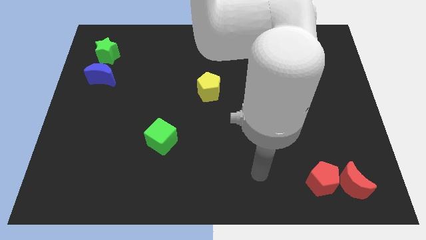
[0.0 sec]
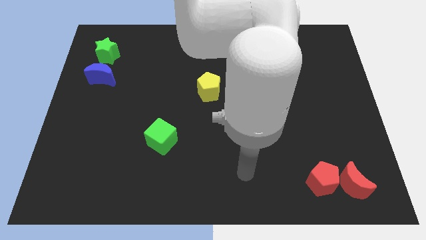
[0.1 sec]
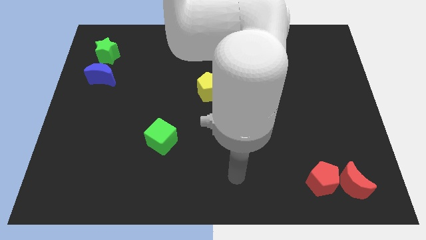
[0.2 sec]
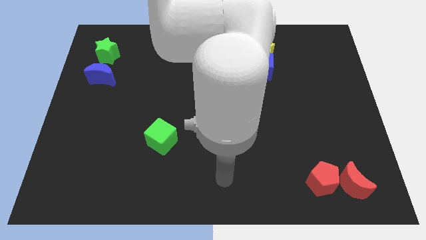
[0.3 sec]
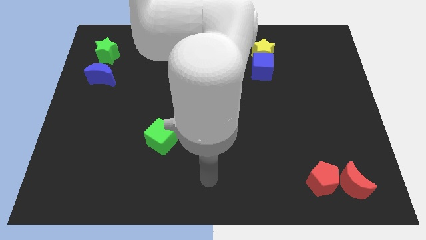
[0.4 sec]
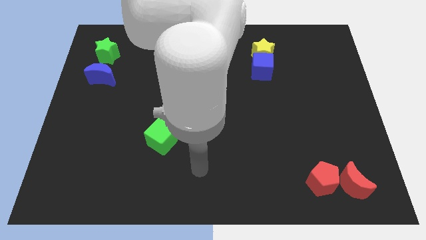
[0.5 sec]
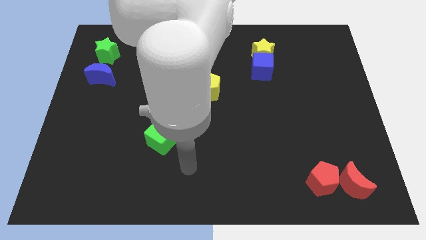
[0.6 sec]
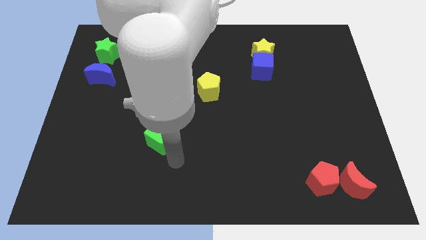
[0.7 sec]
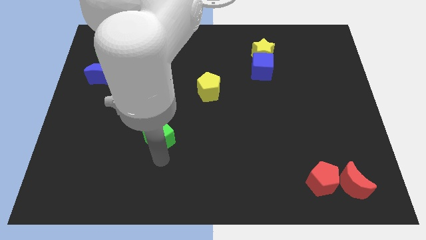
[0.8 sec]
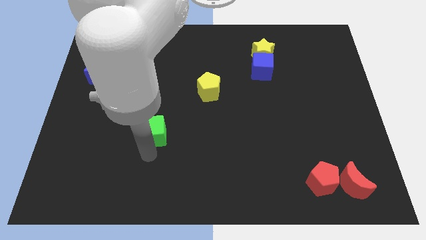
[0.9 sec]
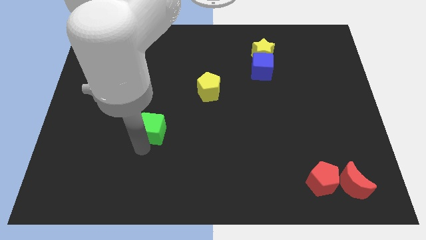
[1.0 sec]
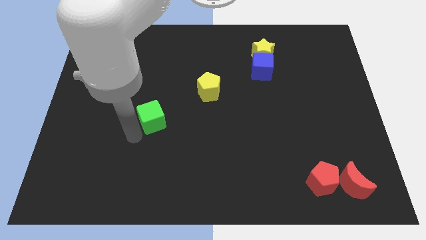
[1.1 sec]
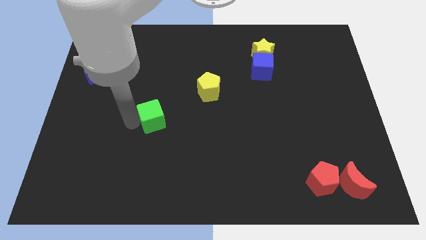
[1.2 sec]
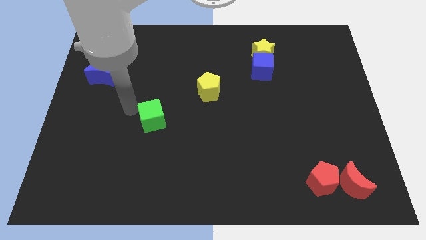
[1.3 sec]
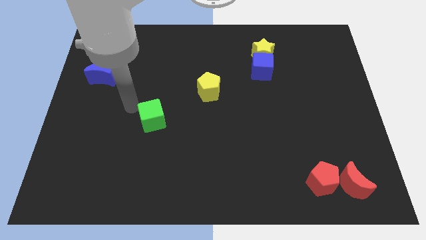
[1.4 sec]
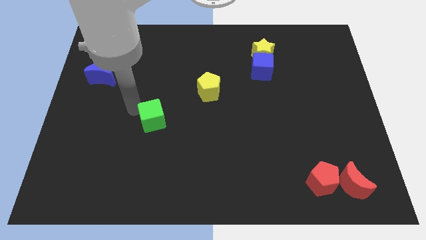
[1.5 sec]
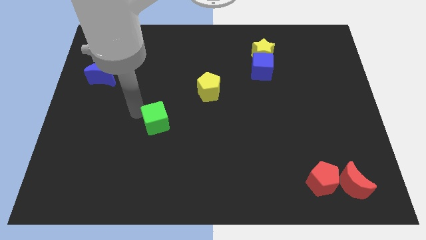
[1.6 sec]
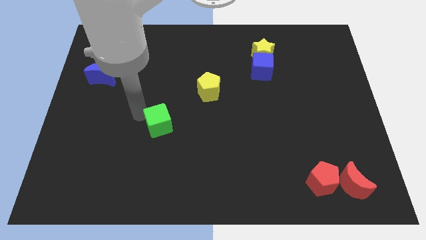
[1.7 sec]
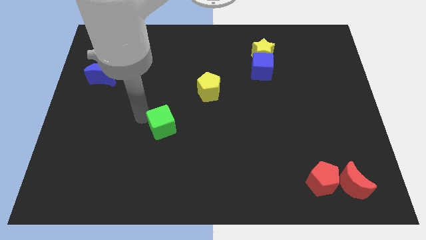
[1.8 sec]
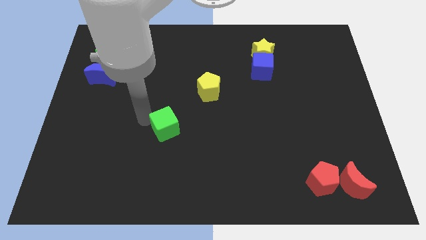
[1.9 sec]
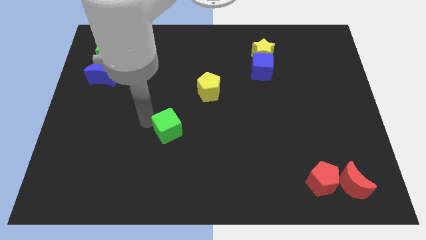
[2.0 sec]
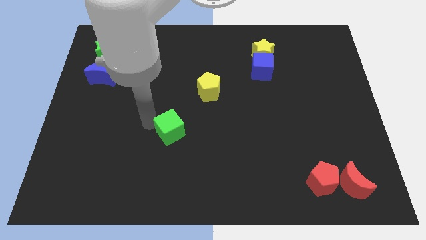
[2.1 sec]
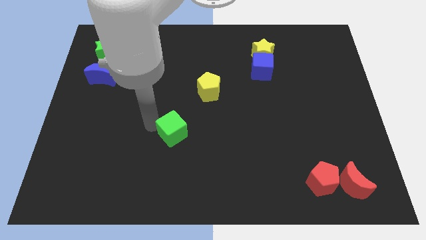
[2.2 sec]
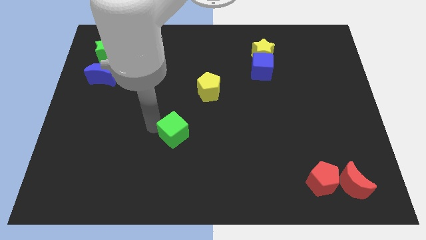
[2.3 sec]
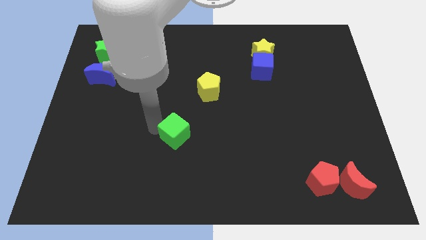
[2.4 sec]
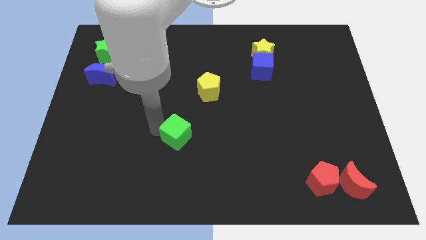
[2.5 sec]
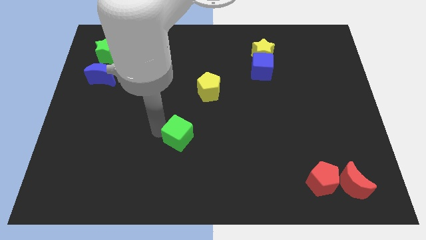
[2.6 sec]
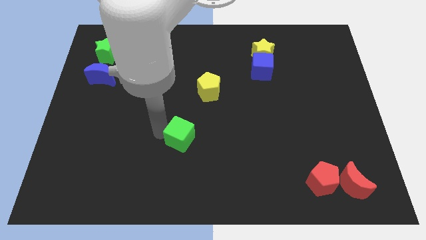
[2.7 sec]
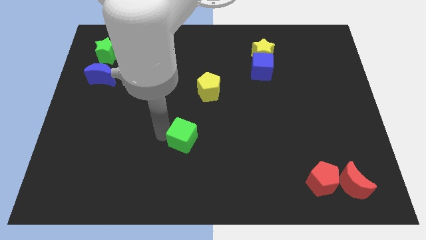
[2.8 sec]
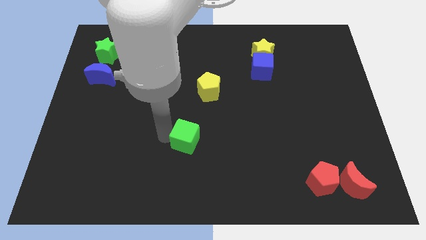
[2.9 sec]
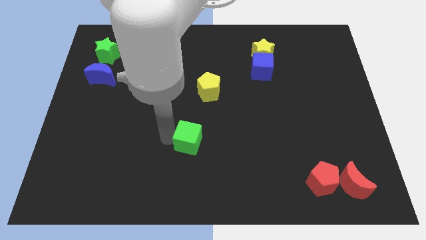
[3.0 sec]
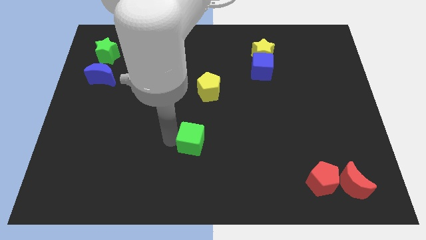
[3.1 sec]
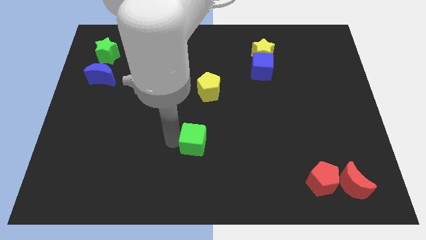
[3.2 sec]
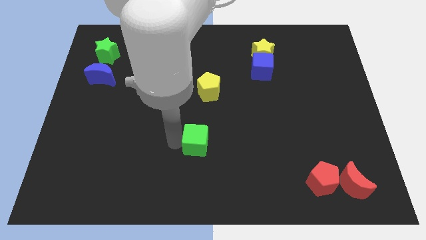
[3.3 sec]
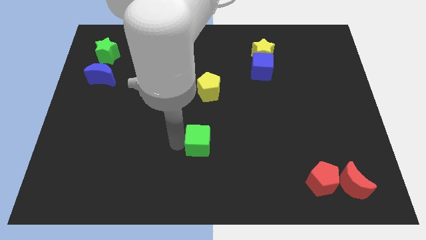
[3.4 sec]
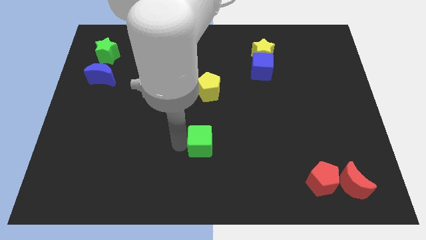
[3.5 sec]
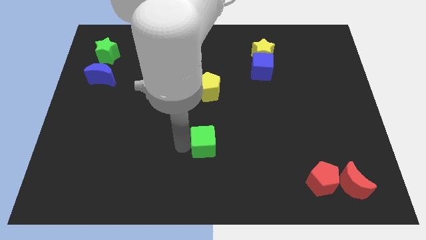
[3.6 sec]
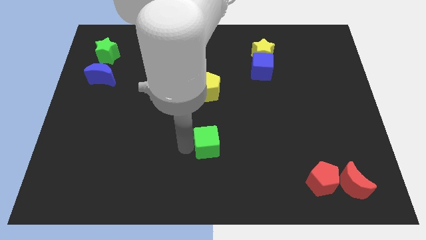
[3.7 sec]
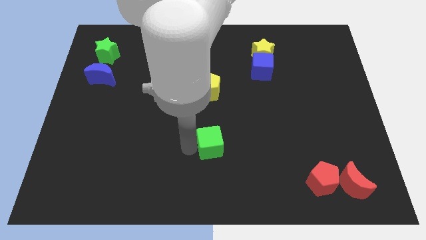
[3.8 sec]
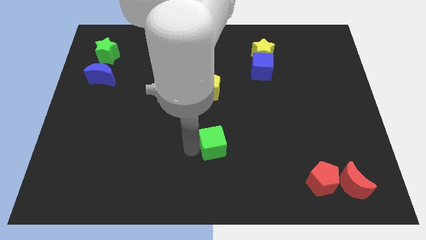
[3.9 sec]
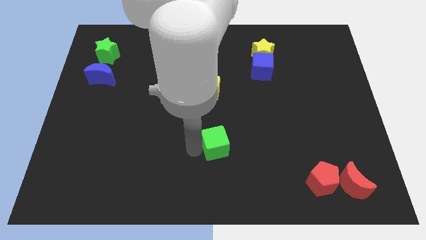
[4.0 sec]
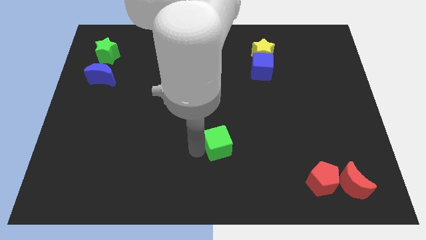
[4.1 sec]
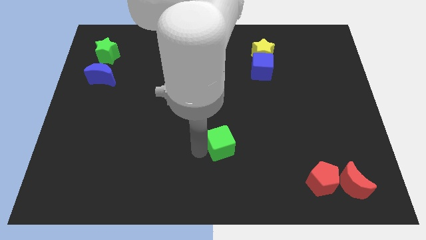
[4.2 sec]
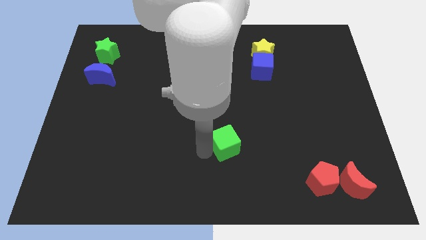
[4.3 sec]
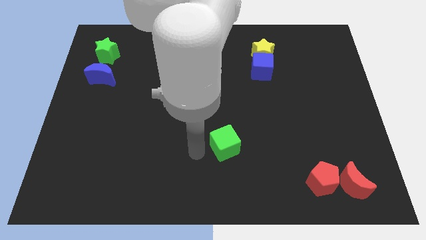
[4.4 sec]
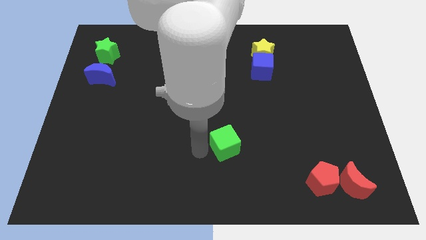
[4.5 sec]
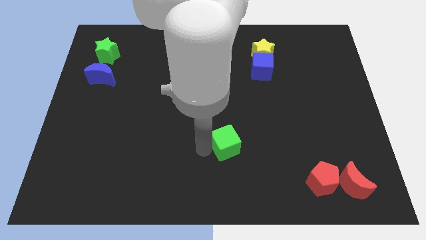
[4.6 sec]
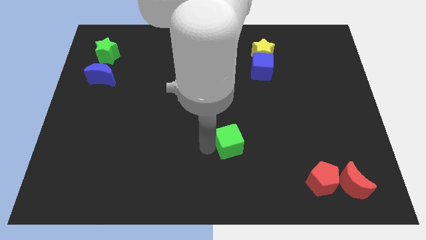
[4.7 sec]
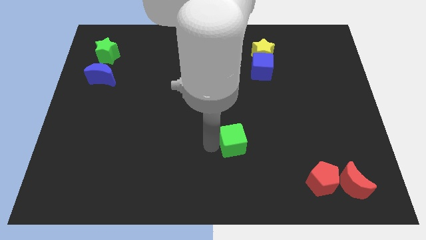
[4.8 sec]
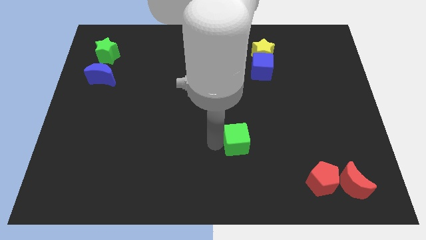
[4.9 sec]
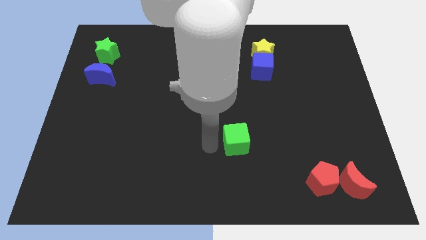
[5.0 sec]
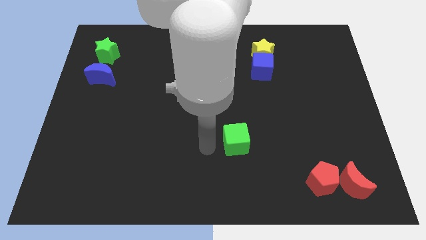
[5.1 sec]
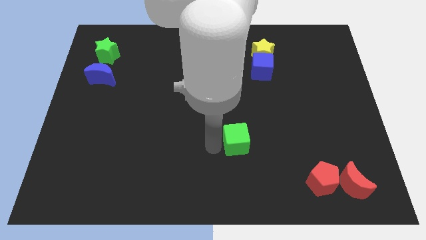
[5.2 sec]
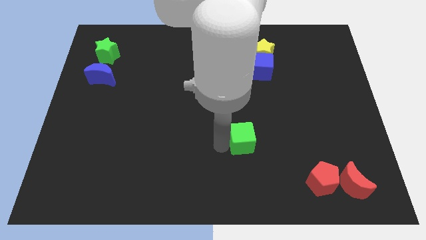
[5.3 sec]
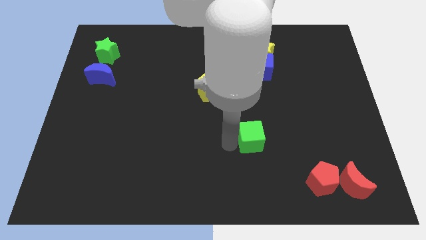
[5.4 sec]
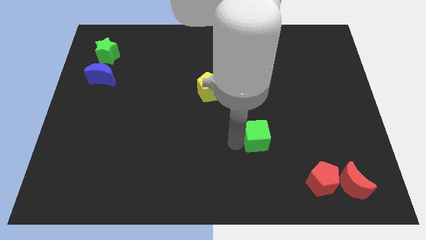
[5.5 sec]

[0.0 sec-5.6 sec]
slide the green cube to the right

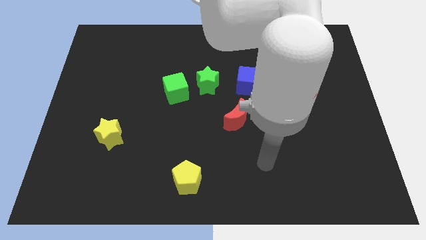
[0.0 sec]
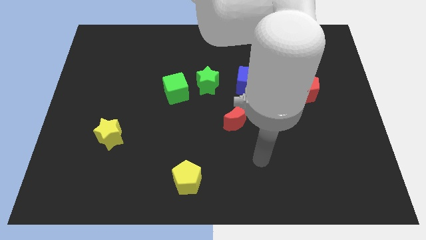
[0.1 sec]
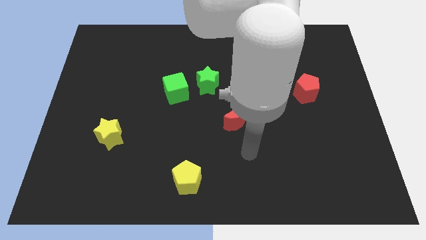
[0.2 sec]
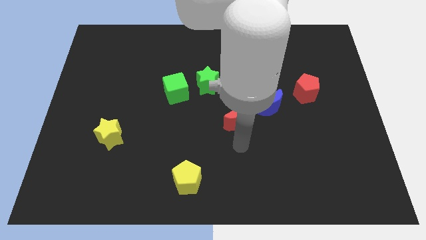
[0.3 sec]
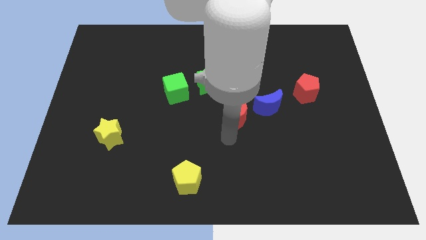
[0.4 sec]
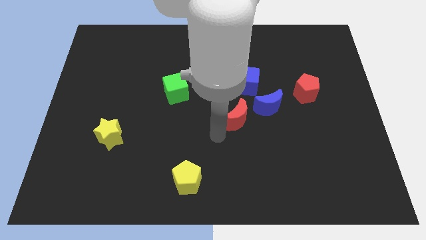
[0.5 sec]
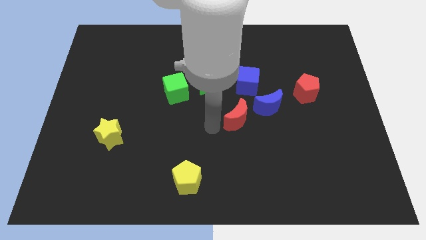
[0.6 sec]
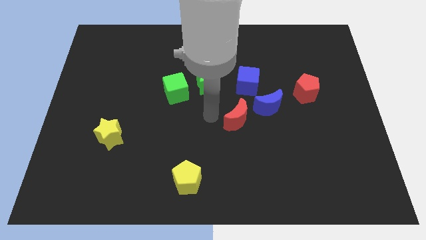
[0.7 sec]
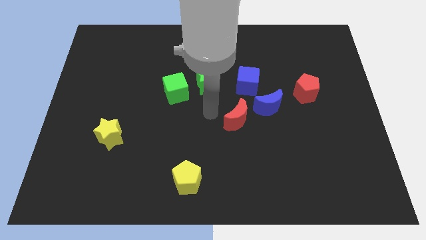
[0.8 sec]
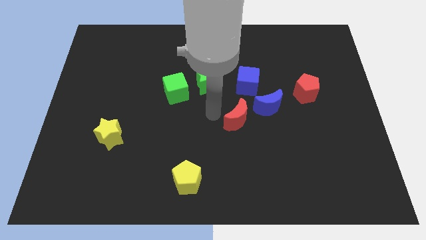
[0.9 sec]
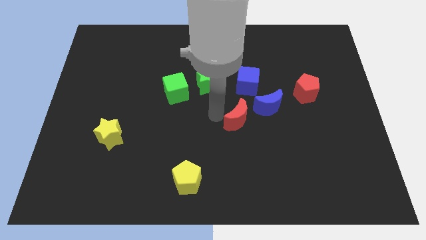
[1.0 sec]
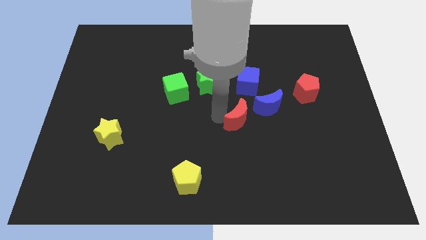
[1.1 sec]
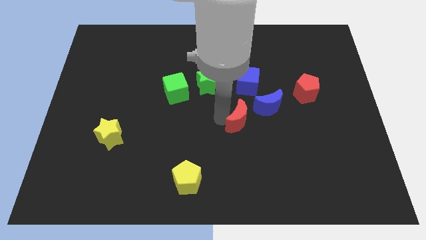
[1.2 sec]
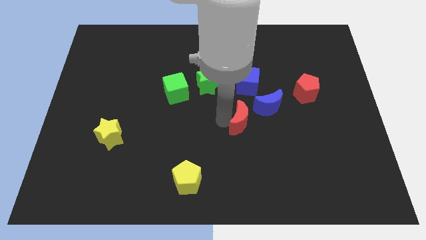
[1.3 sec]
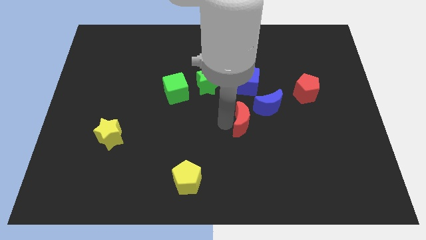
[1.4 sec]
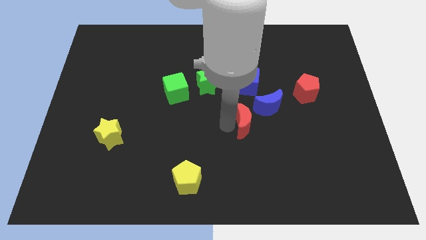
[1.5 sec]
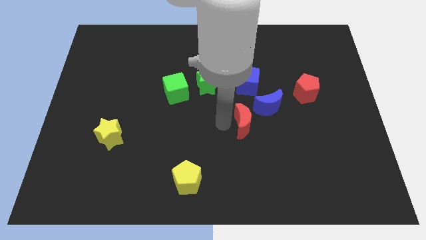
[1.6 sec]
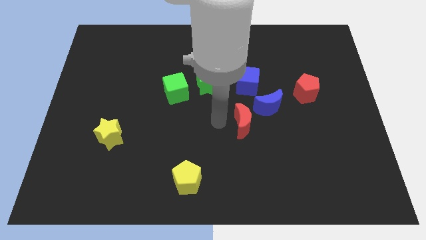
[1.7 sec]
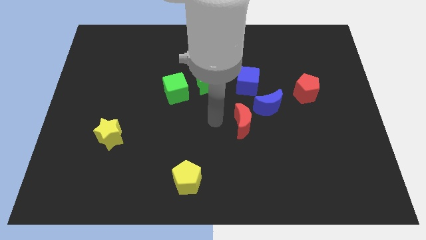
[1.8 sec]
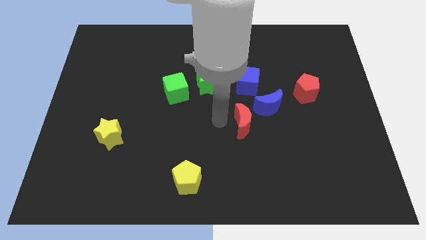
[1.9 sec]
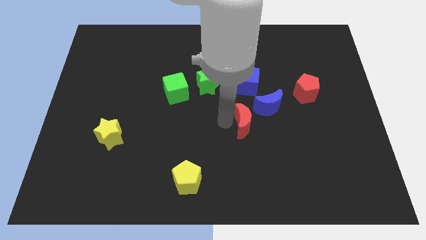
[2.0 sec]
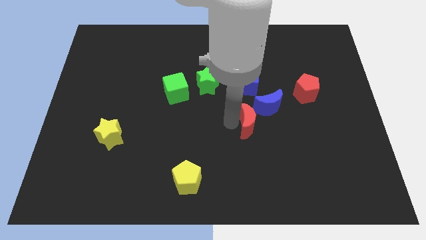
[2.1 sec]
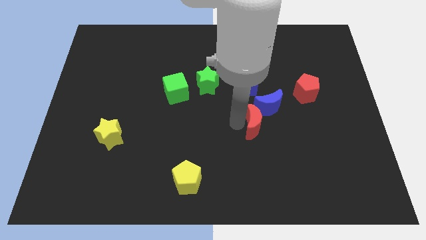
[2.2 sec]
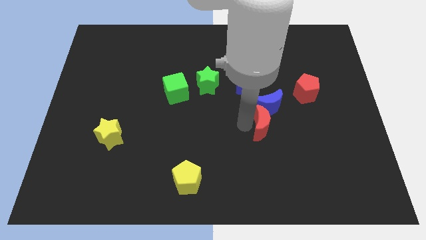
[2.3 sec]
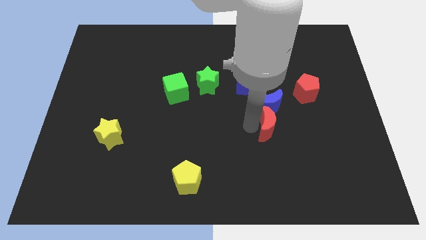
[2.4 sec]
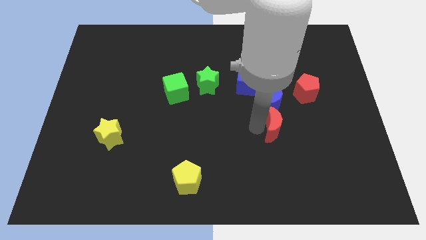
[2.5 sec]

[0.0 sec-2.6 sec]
push the red moon right slightly
